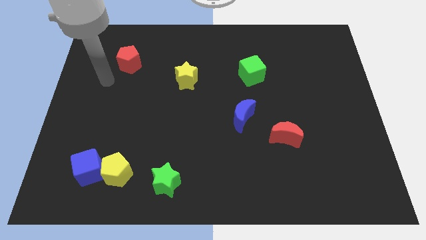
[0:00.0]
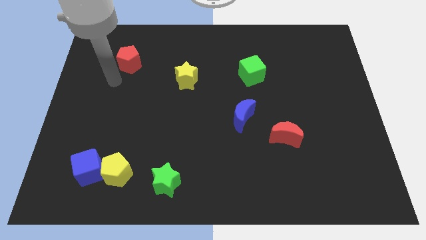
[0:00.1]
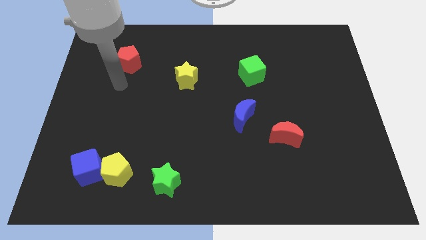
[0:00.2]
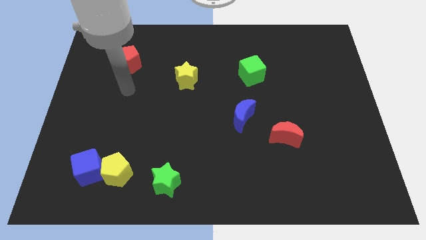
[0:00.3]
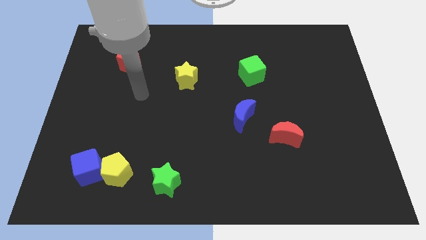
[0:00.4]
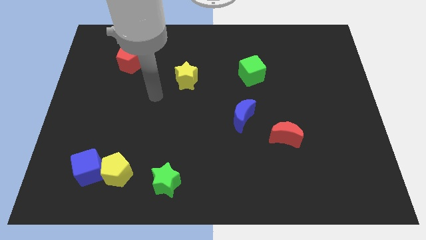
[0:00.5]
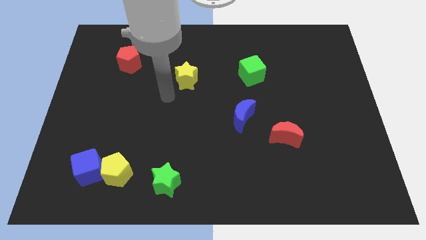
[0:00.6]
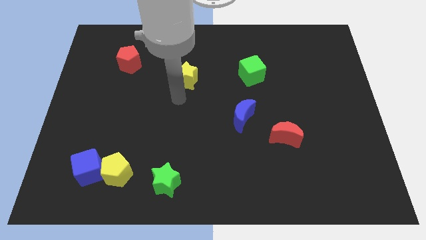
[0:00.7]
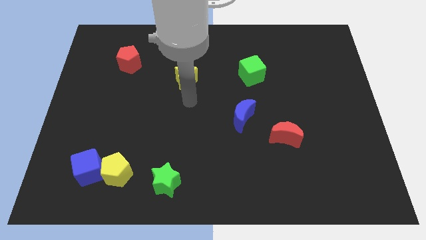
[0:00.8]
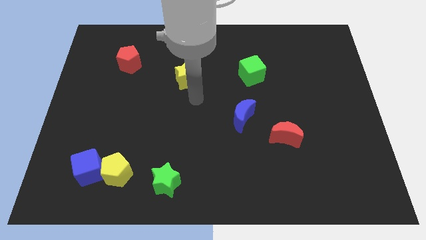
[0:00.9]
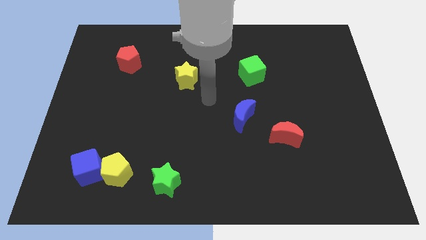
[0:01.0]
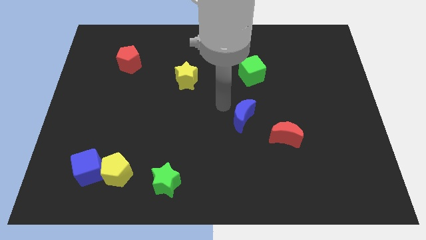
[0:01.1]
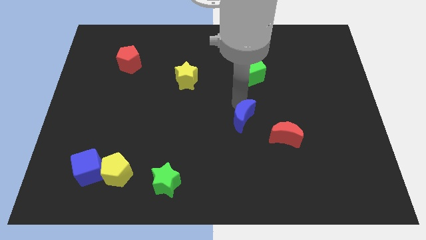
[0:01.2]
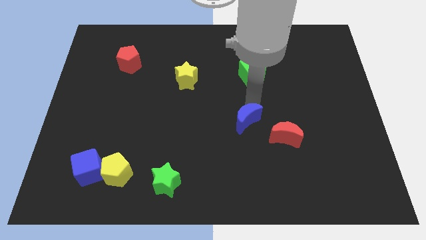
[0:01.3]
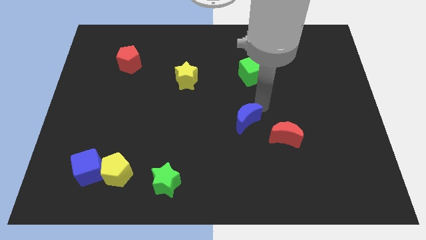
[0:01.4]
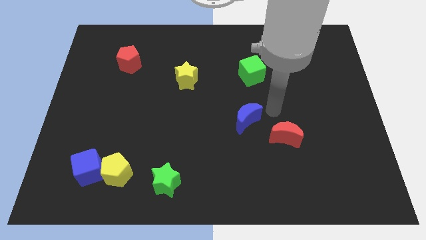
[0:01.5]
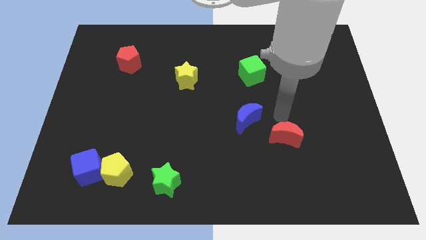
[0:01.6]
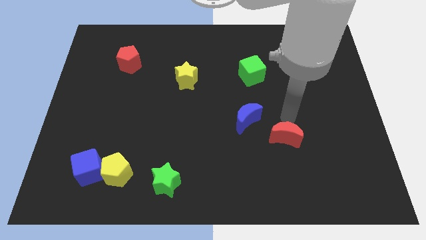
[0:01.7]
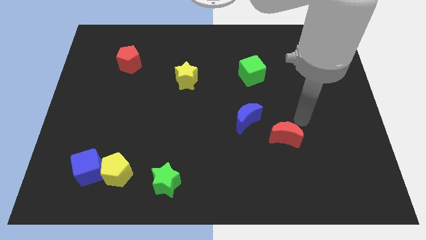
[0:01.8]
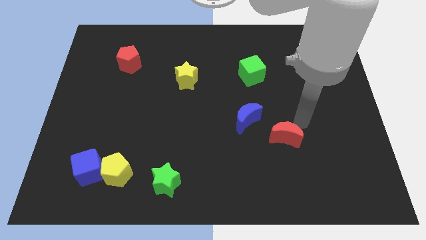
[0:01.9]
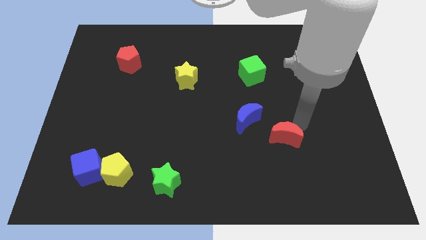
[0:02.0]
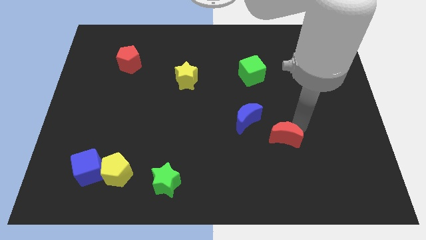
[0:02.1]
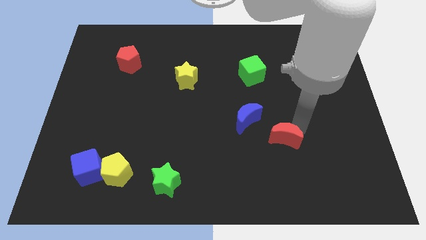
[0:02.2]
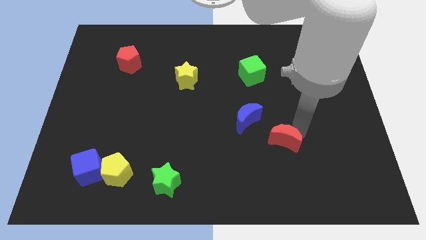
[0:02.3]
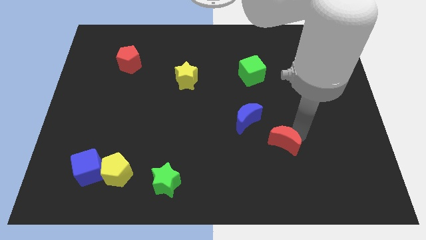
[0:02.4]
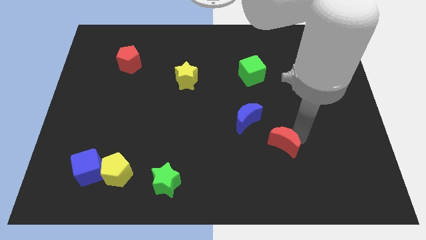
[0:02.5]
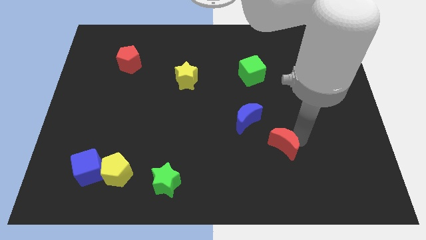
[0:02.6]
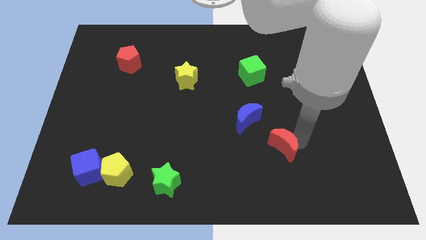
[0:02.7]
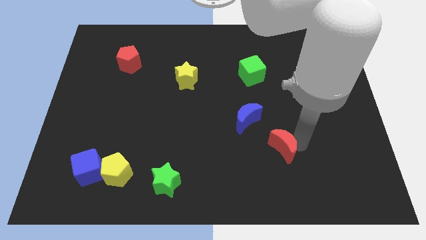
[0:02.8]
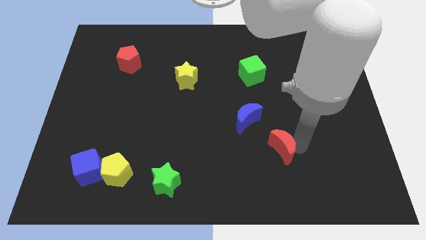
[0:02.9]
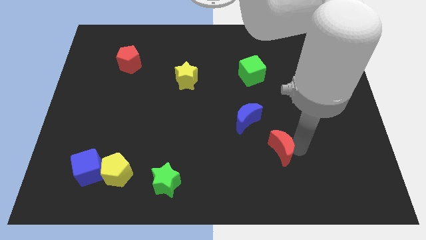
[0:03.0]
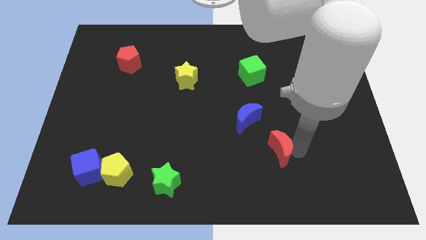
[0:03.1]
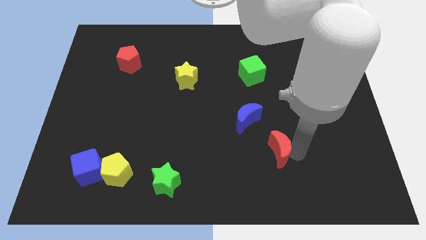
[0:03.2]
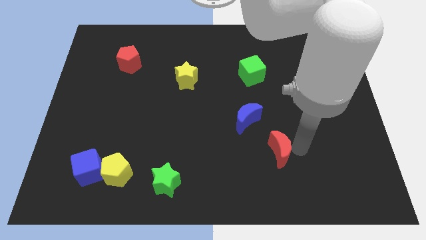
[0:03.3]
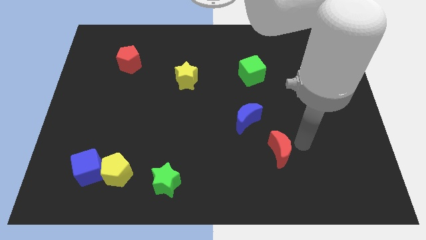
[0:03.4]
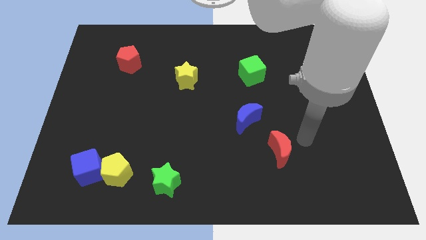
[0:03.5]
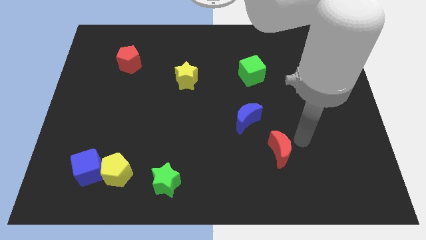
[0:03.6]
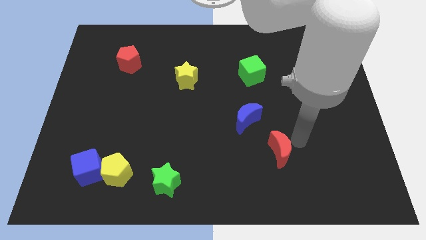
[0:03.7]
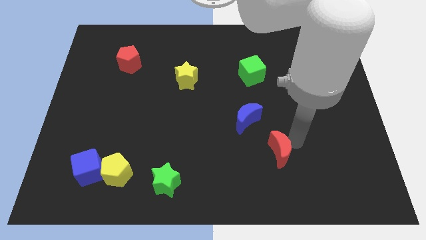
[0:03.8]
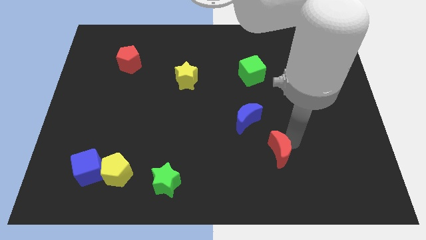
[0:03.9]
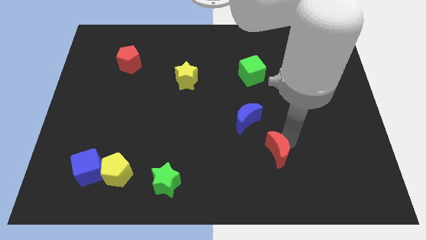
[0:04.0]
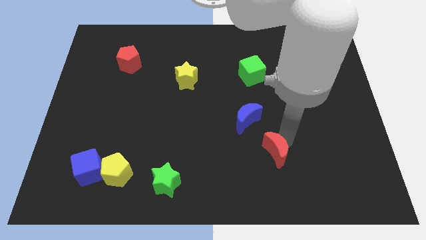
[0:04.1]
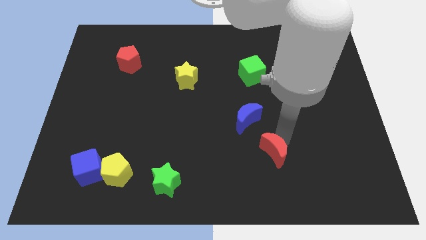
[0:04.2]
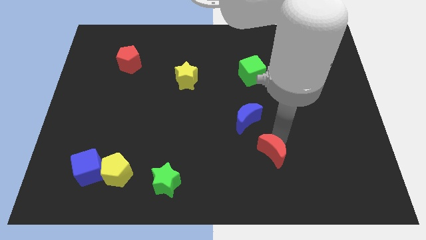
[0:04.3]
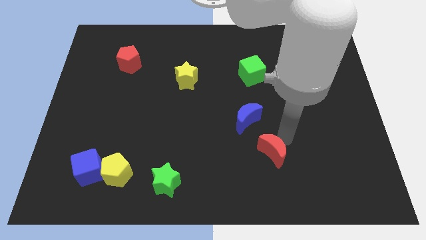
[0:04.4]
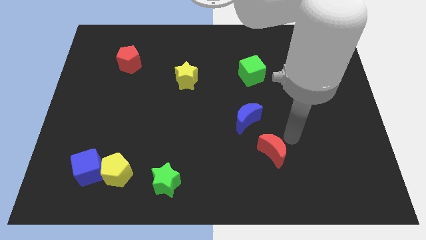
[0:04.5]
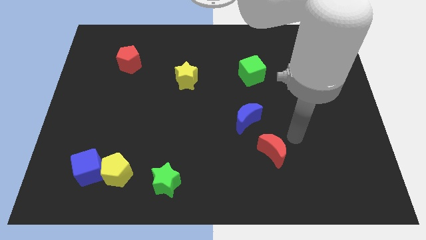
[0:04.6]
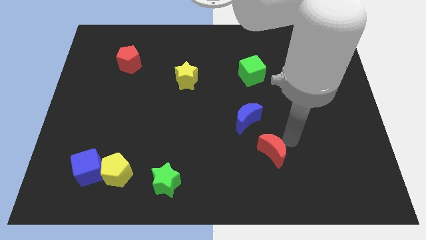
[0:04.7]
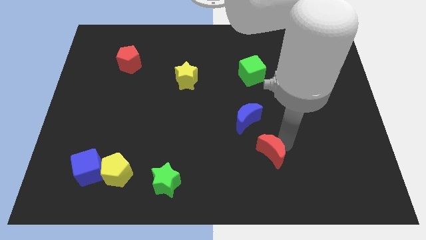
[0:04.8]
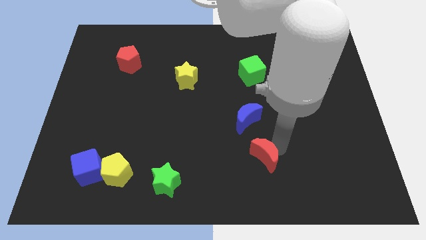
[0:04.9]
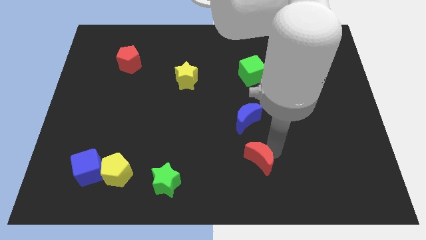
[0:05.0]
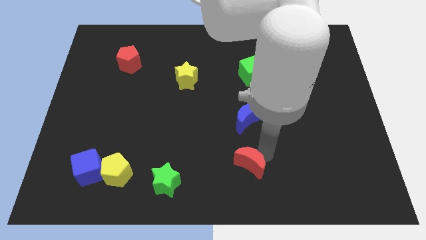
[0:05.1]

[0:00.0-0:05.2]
push the red moon to the bottom

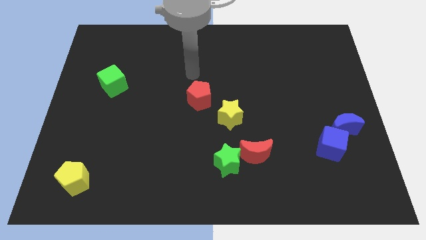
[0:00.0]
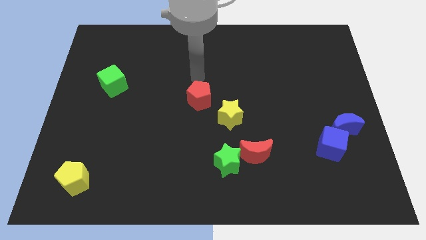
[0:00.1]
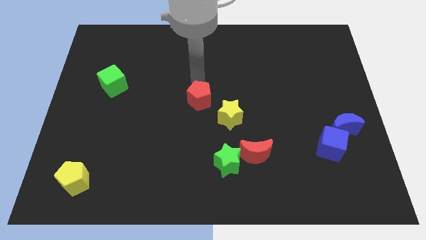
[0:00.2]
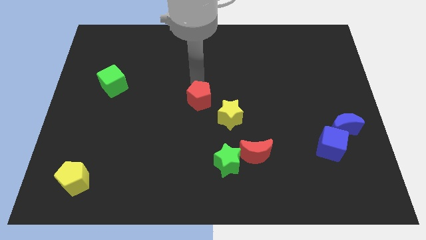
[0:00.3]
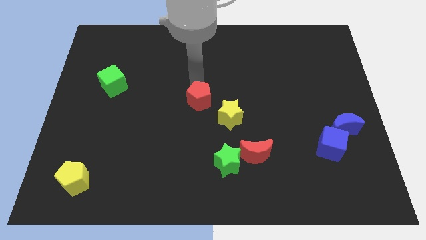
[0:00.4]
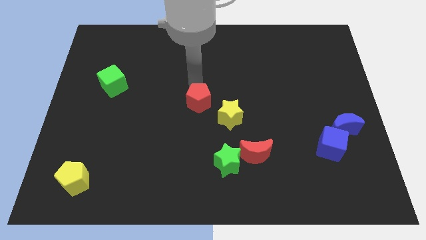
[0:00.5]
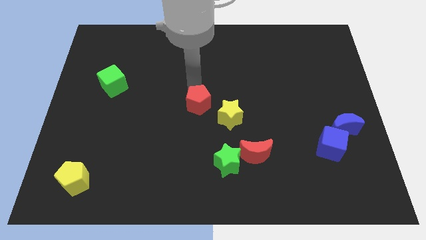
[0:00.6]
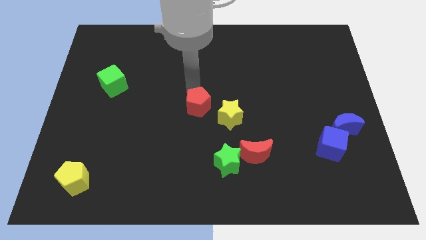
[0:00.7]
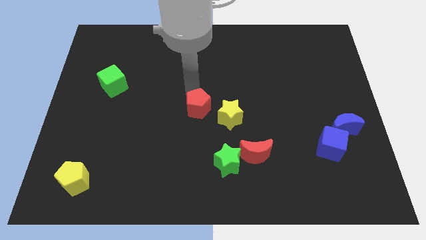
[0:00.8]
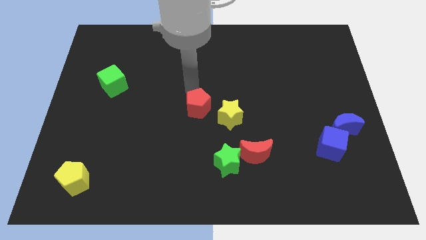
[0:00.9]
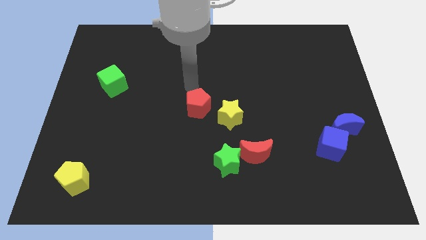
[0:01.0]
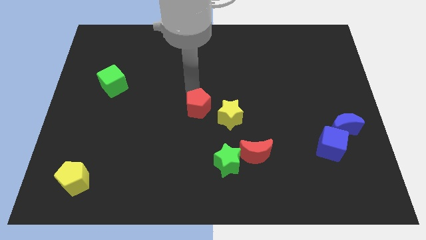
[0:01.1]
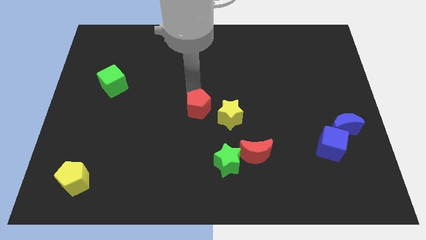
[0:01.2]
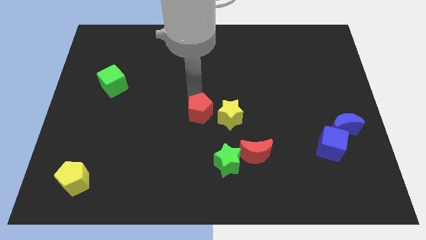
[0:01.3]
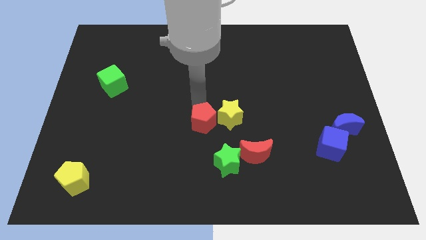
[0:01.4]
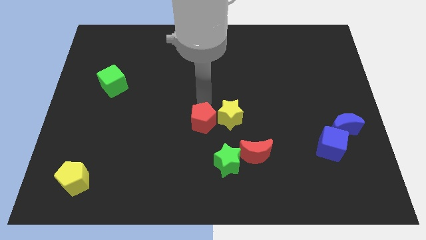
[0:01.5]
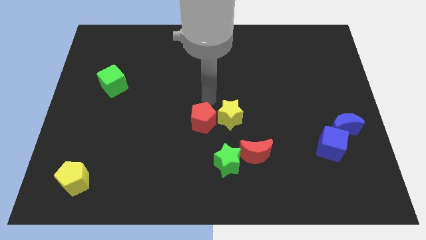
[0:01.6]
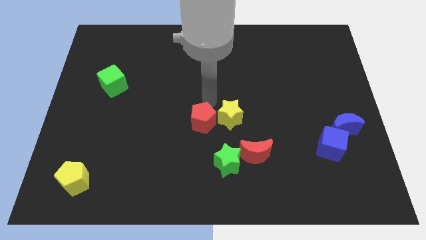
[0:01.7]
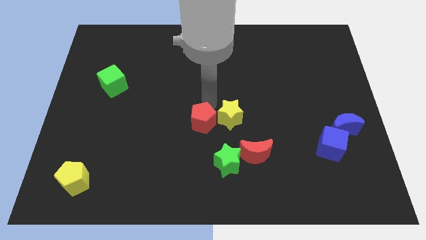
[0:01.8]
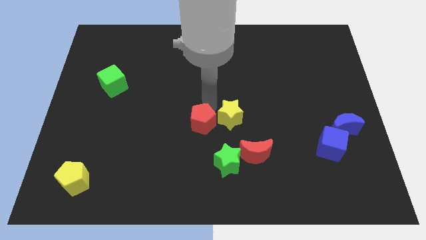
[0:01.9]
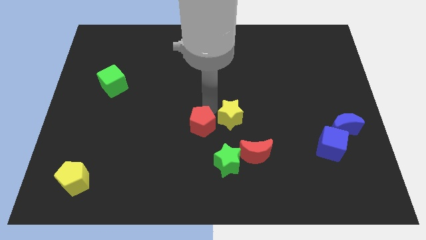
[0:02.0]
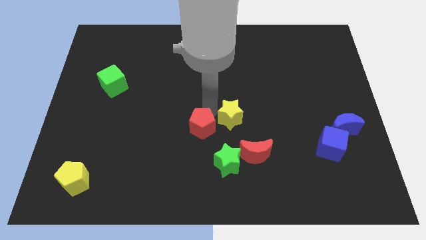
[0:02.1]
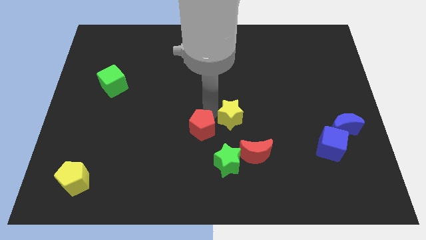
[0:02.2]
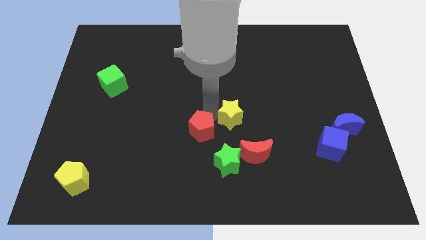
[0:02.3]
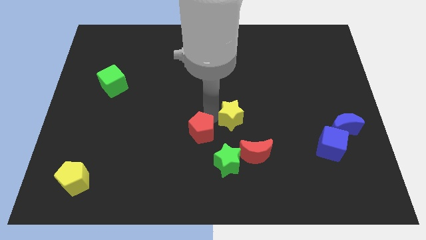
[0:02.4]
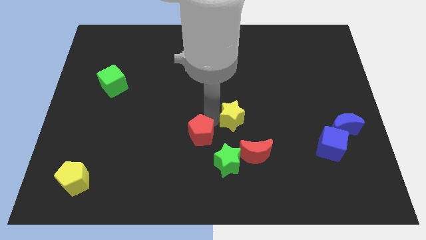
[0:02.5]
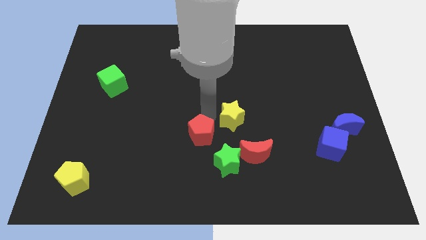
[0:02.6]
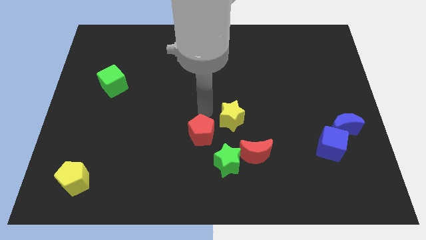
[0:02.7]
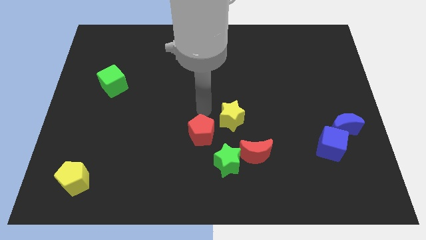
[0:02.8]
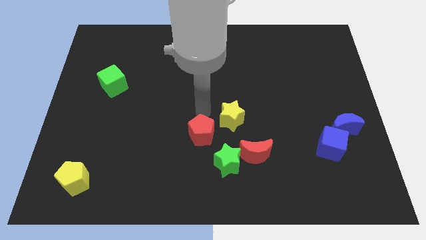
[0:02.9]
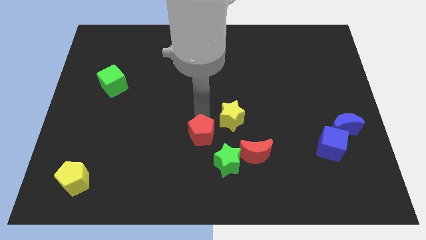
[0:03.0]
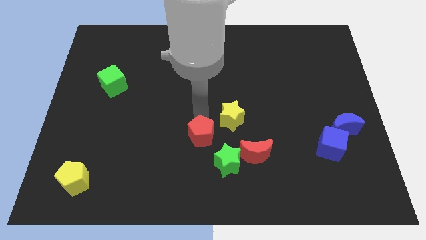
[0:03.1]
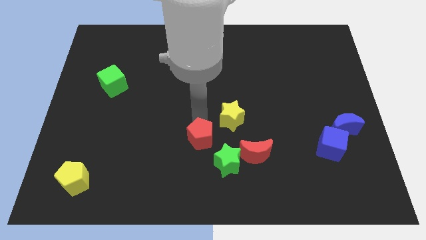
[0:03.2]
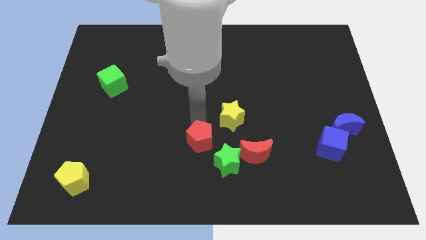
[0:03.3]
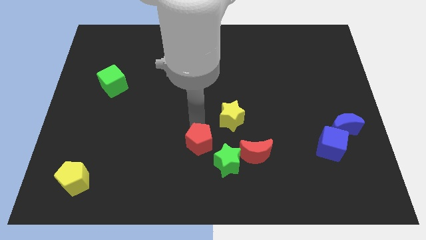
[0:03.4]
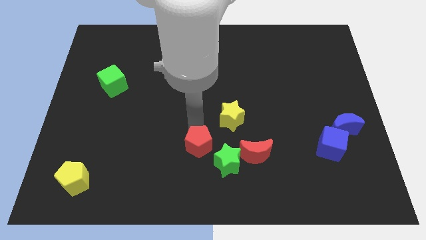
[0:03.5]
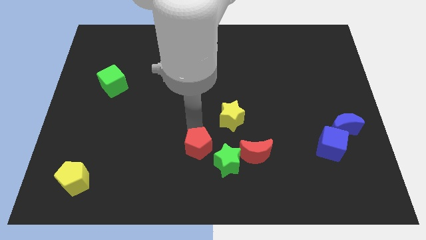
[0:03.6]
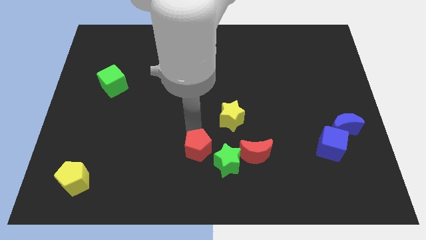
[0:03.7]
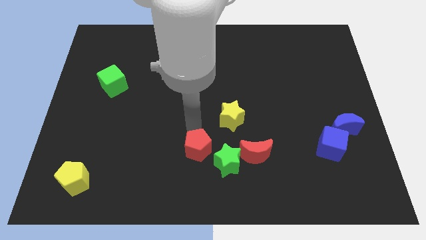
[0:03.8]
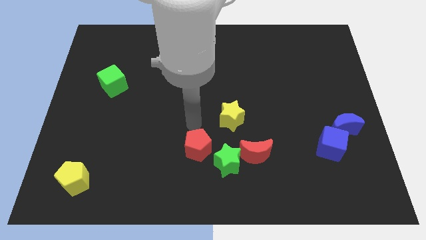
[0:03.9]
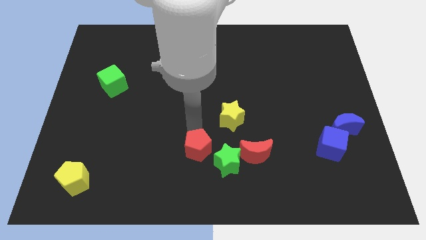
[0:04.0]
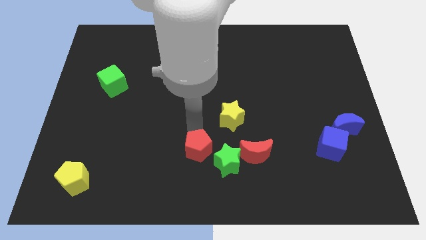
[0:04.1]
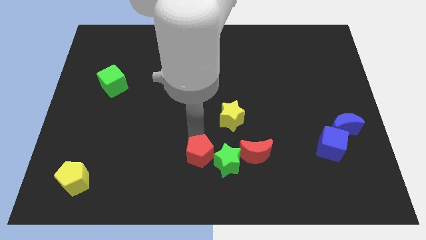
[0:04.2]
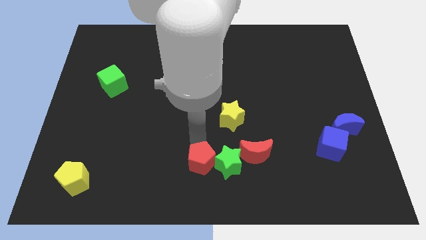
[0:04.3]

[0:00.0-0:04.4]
slide the red pentagon to the bottom side
